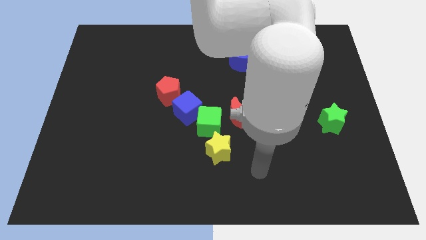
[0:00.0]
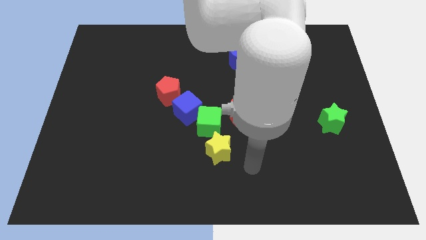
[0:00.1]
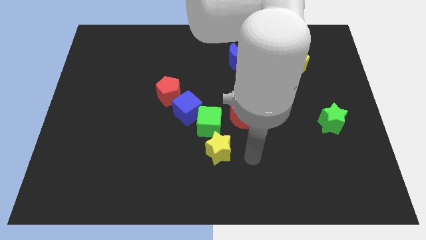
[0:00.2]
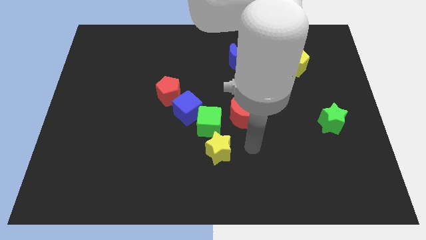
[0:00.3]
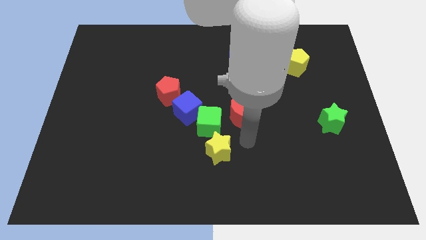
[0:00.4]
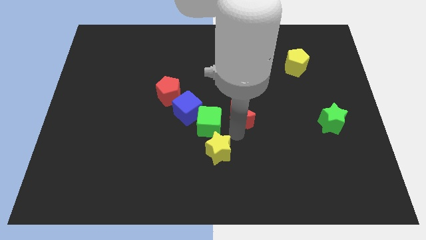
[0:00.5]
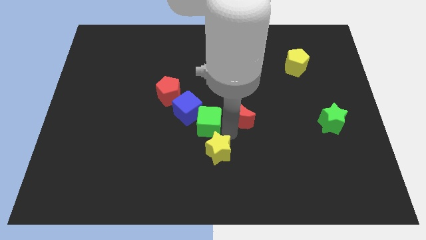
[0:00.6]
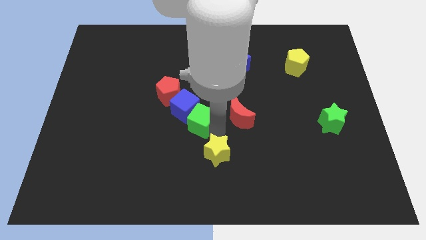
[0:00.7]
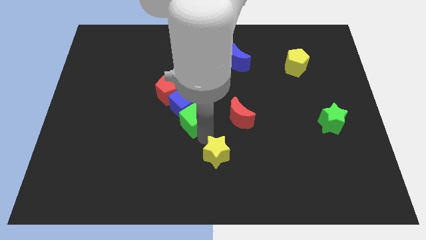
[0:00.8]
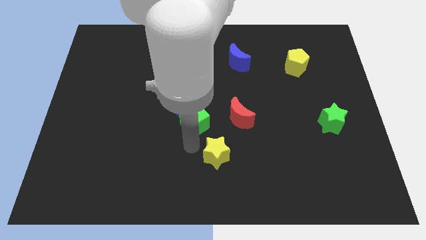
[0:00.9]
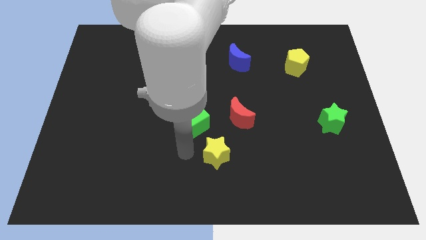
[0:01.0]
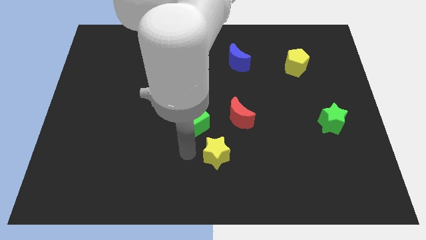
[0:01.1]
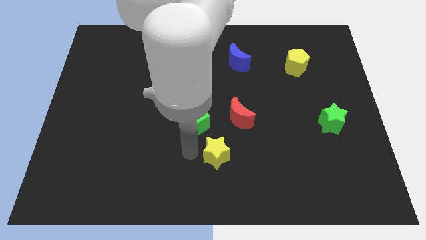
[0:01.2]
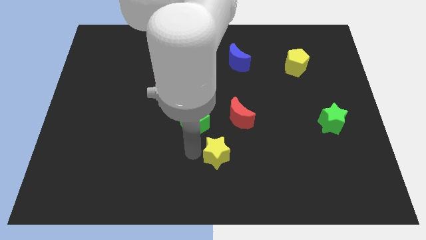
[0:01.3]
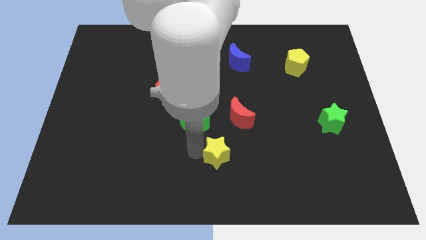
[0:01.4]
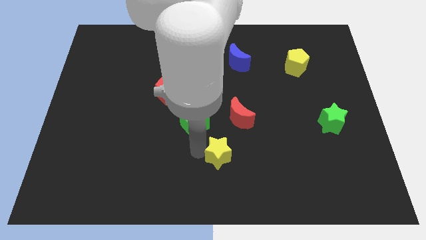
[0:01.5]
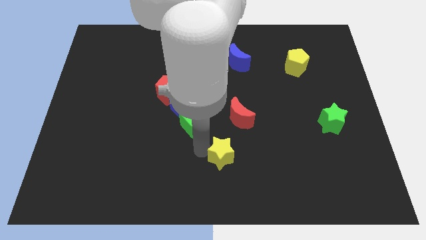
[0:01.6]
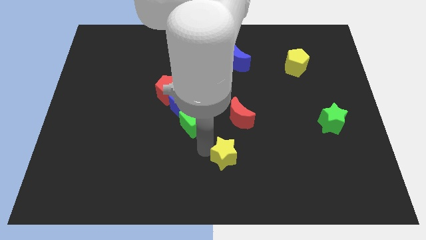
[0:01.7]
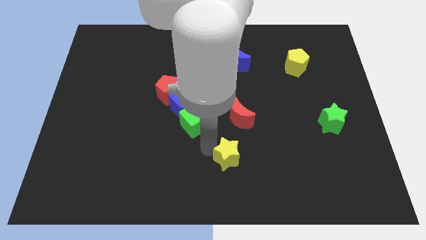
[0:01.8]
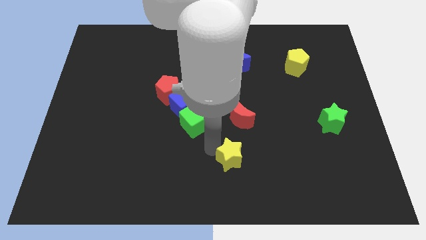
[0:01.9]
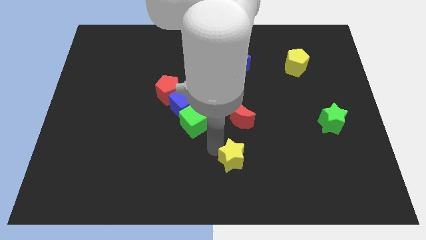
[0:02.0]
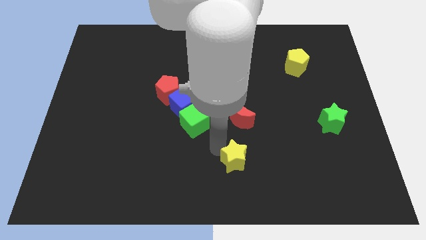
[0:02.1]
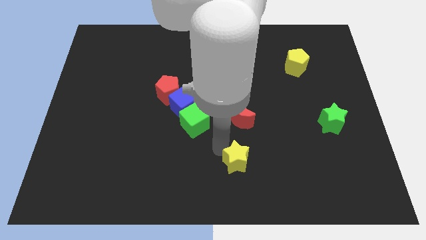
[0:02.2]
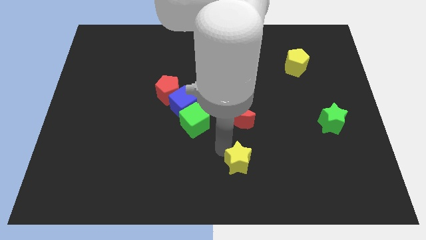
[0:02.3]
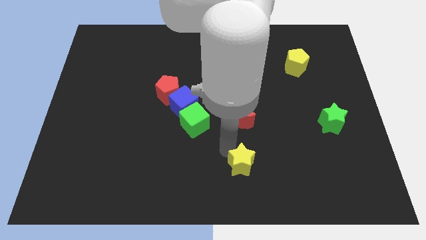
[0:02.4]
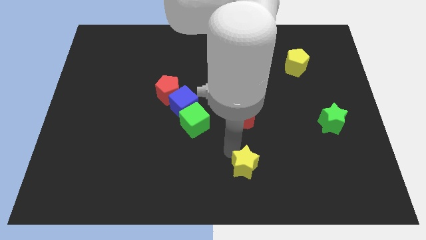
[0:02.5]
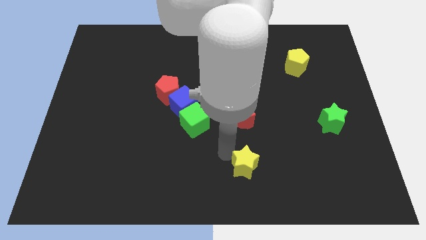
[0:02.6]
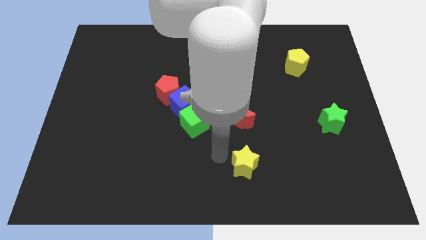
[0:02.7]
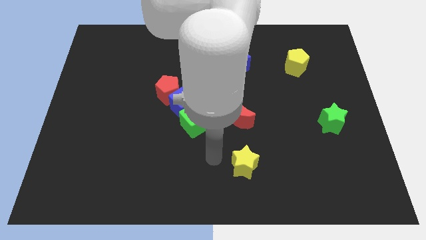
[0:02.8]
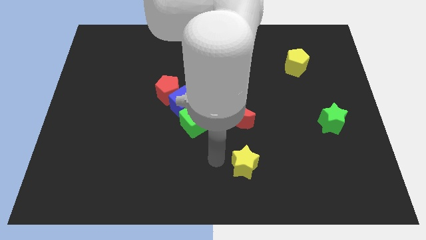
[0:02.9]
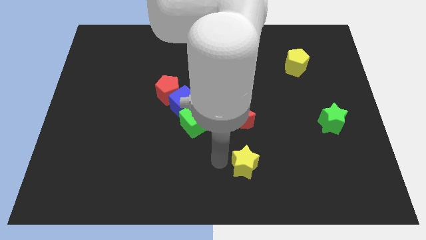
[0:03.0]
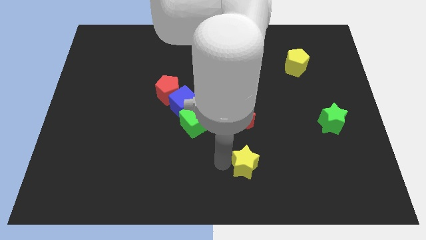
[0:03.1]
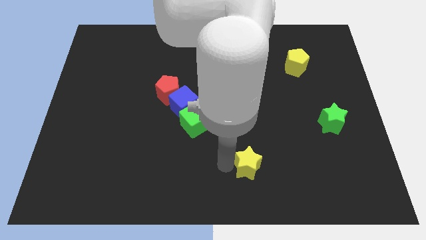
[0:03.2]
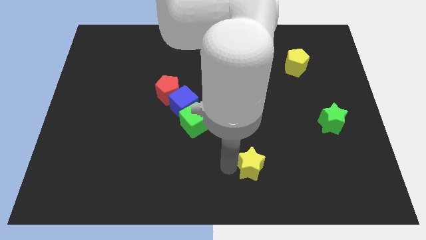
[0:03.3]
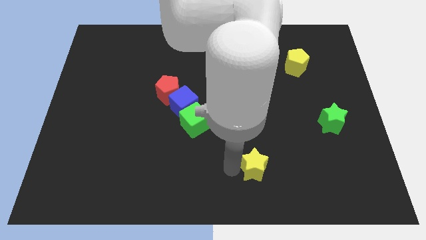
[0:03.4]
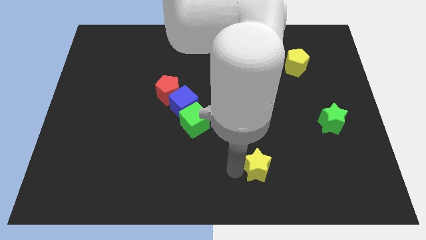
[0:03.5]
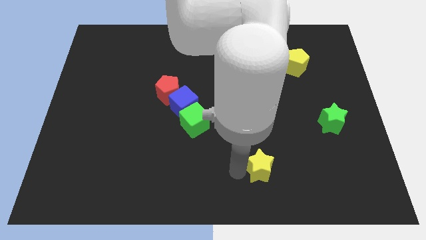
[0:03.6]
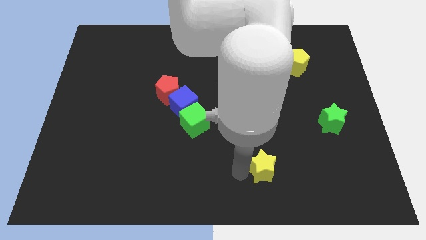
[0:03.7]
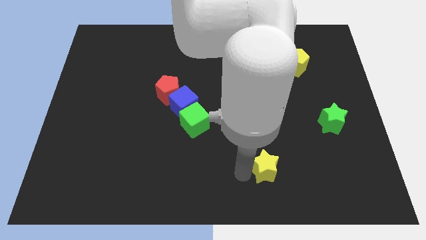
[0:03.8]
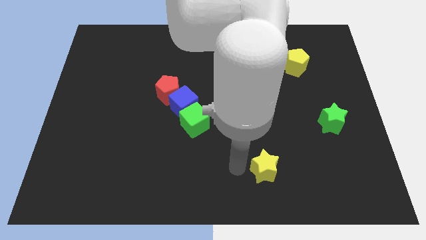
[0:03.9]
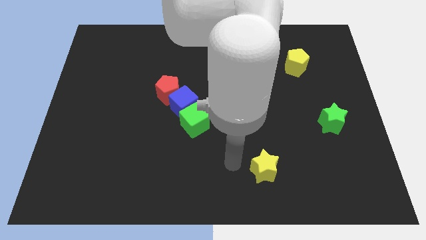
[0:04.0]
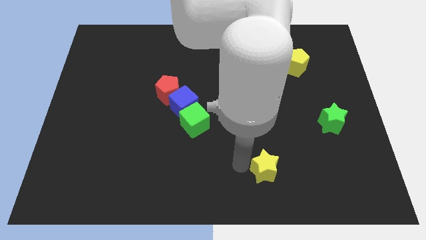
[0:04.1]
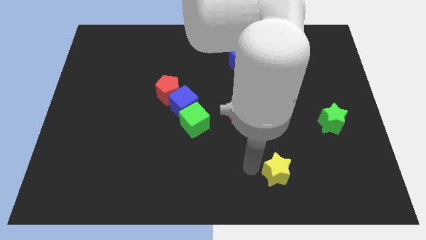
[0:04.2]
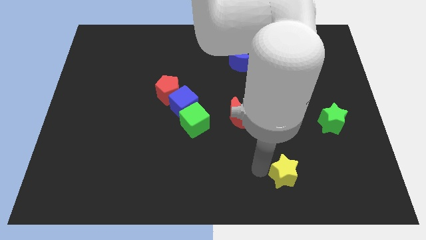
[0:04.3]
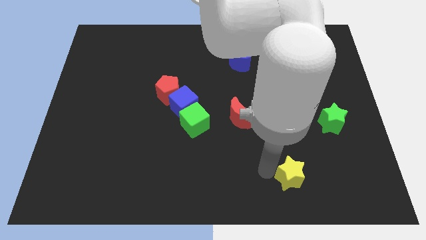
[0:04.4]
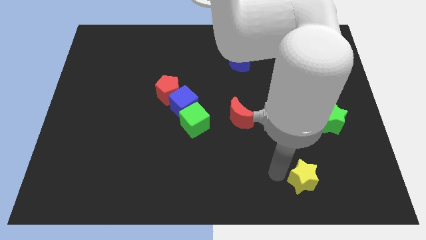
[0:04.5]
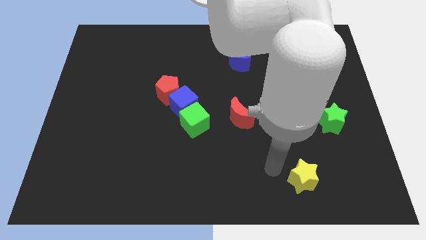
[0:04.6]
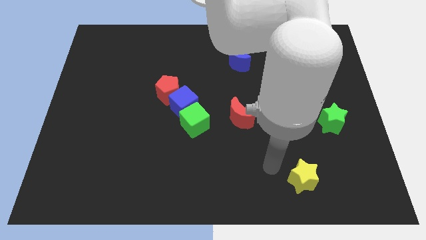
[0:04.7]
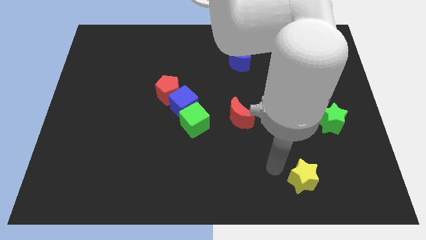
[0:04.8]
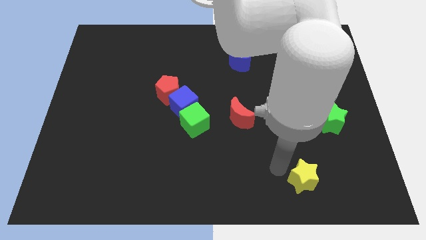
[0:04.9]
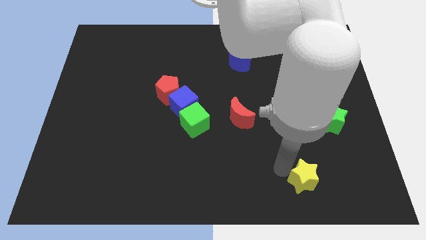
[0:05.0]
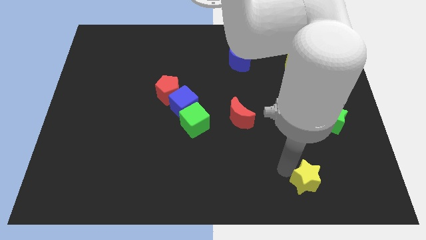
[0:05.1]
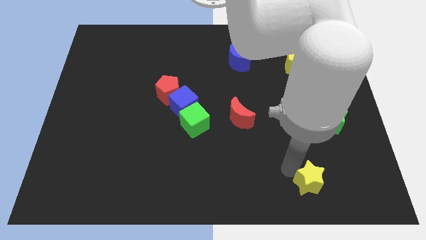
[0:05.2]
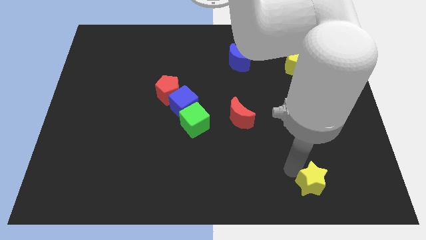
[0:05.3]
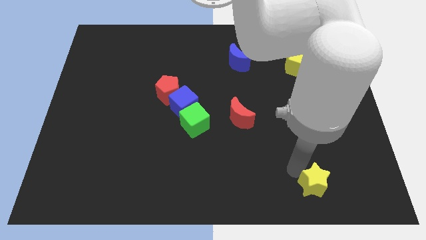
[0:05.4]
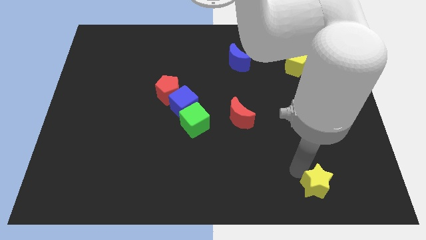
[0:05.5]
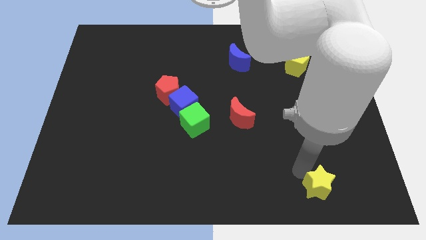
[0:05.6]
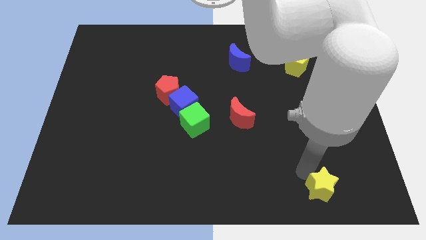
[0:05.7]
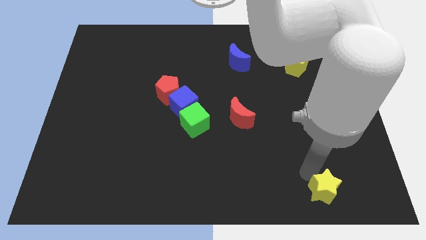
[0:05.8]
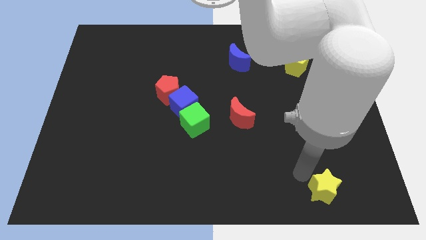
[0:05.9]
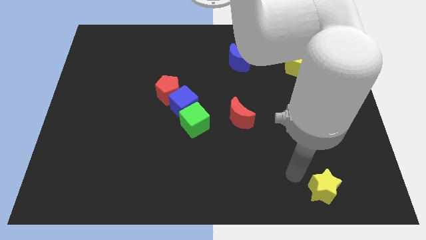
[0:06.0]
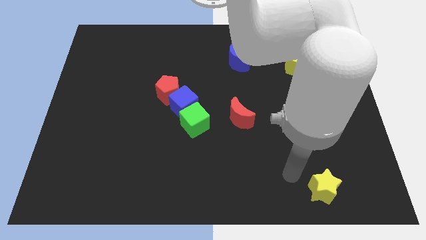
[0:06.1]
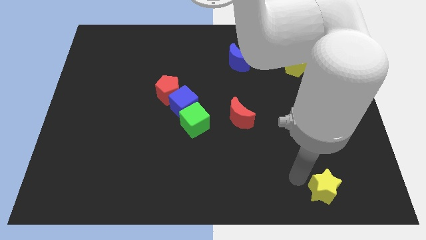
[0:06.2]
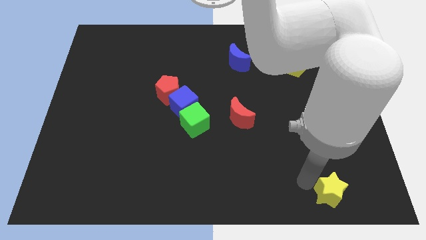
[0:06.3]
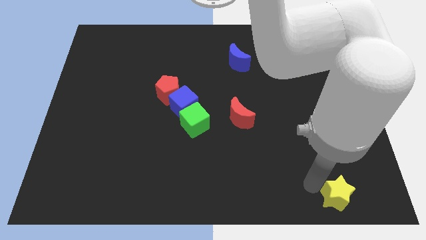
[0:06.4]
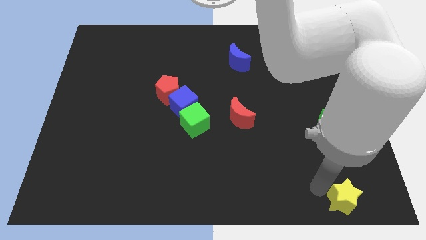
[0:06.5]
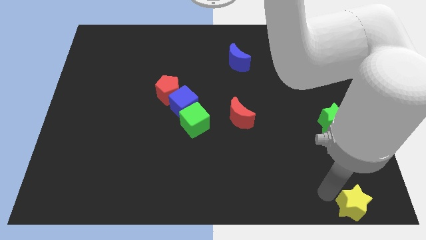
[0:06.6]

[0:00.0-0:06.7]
slide the yellow star to the bottom right
